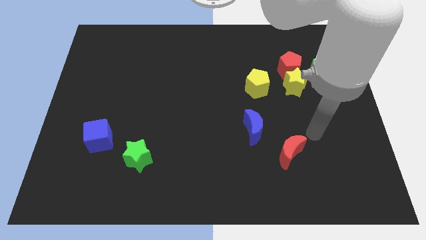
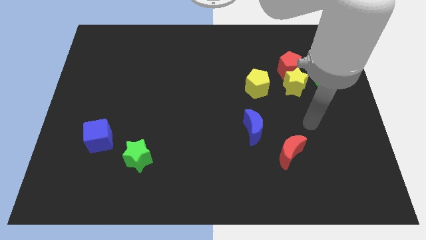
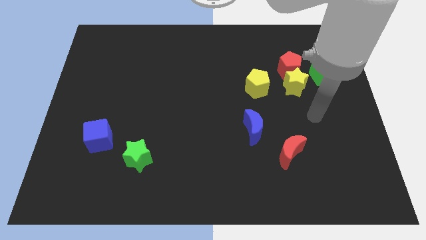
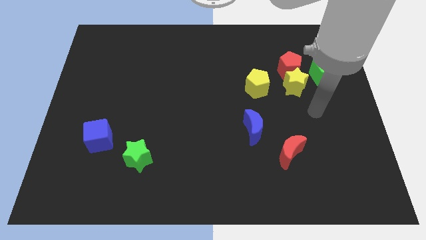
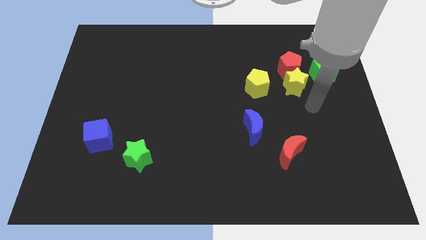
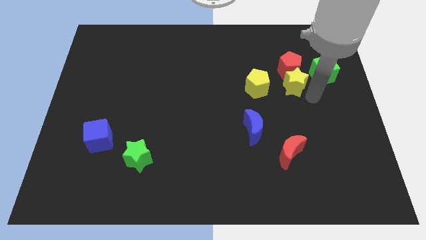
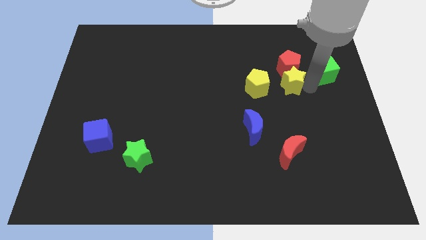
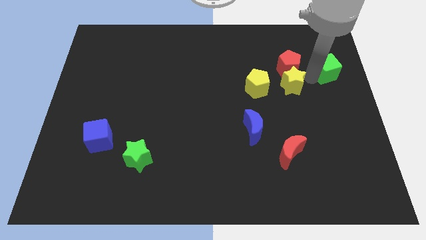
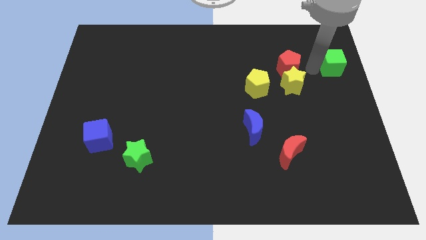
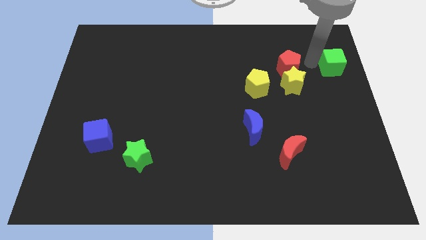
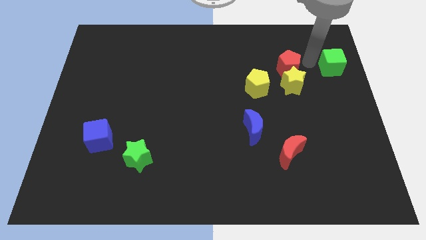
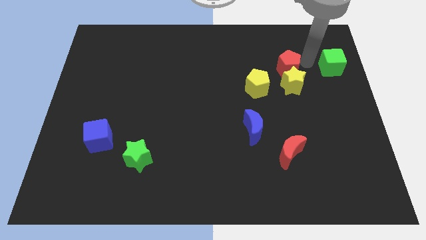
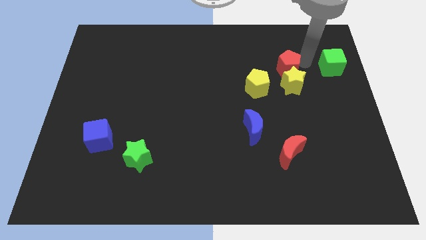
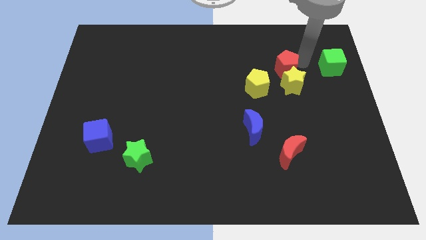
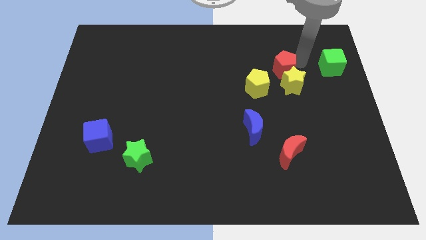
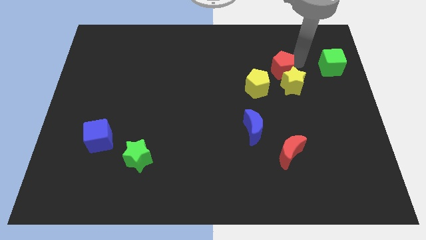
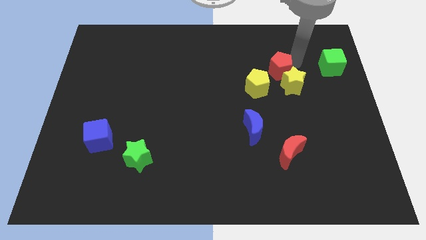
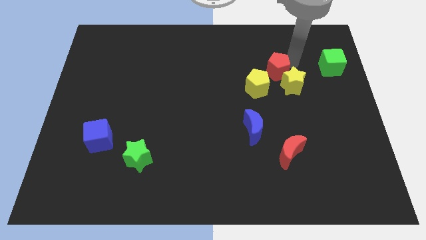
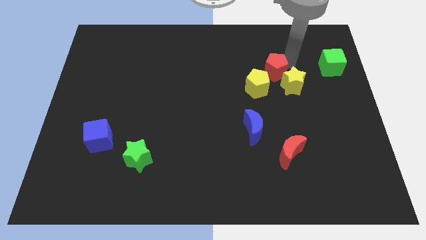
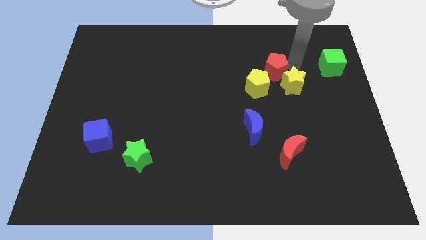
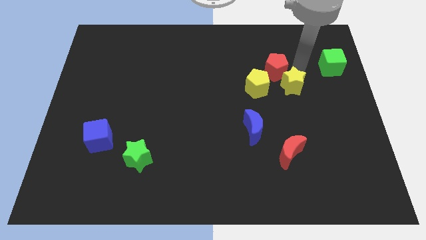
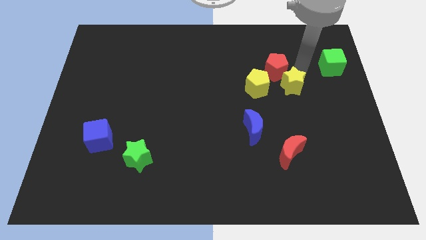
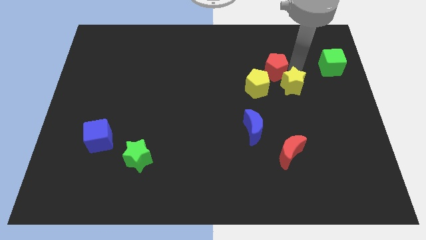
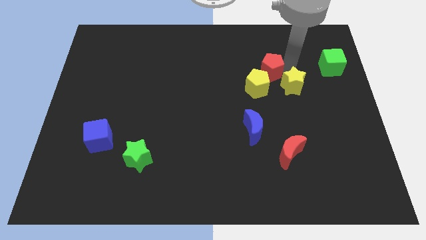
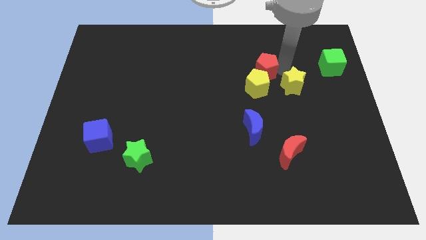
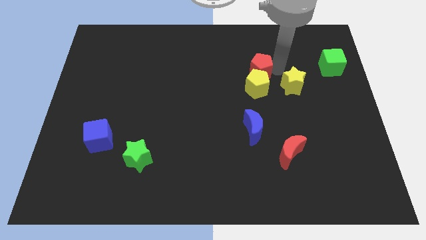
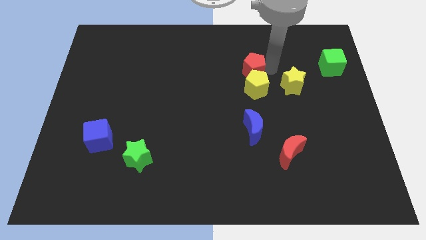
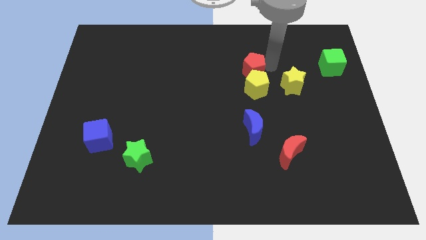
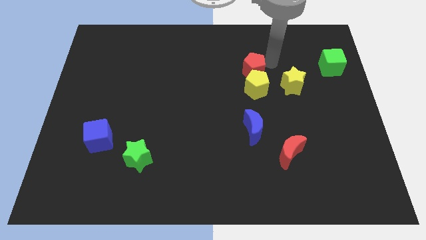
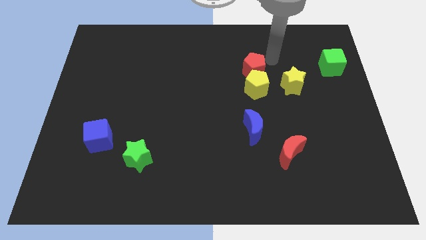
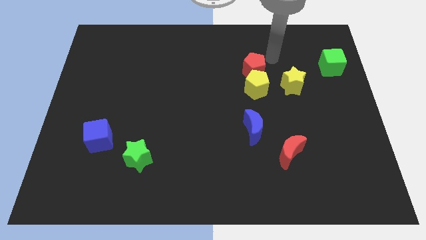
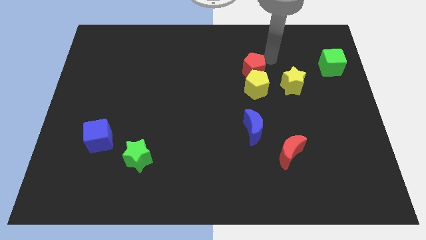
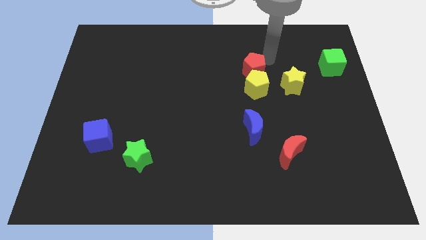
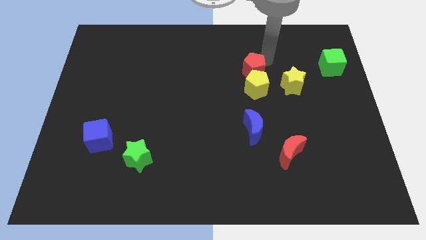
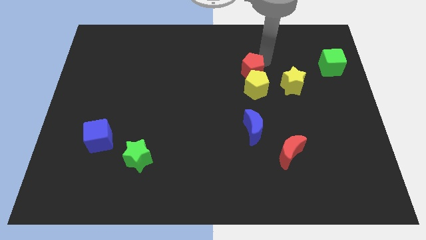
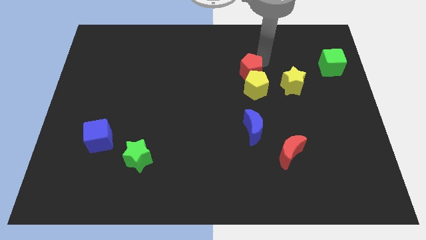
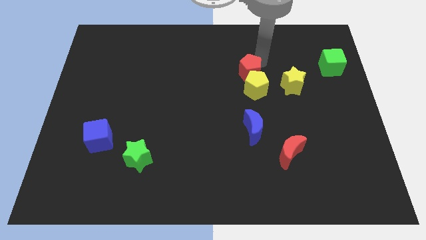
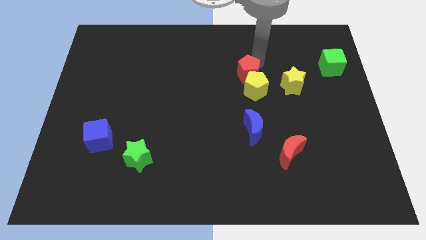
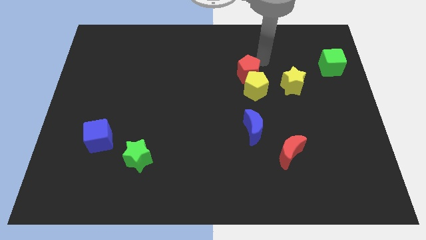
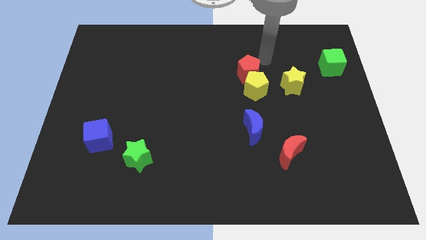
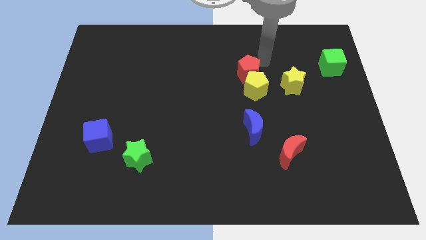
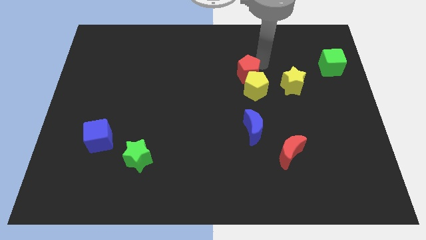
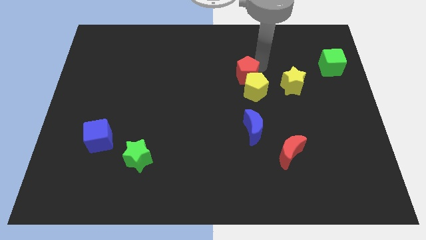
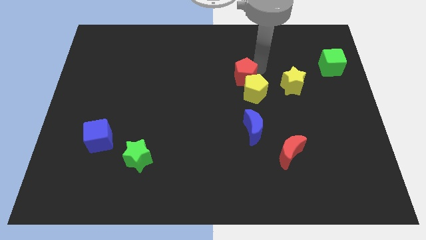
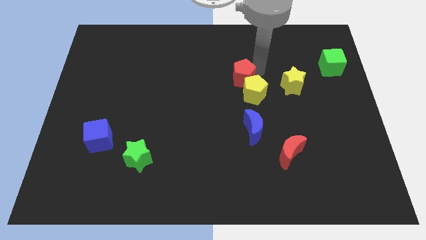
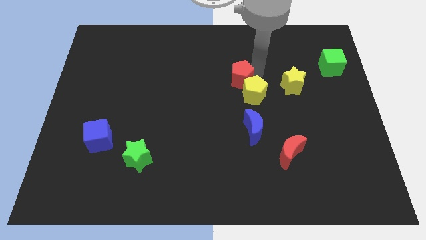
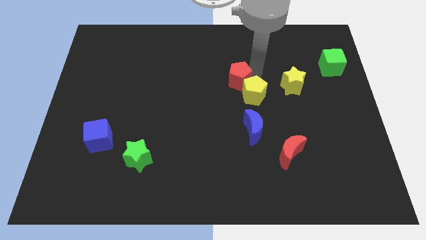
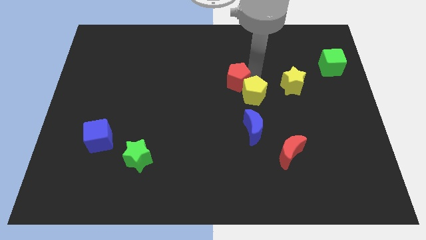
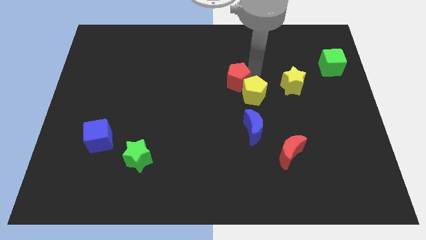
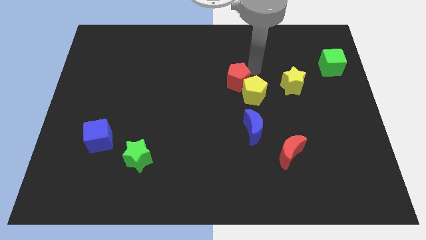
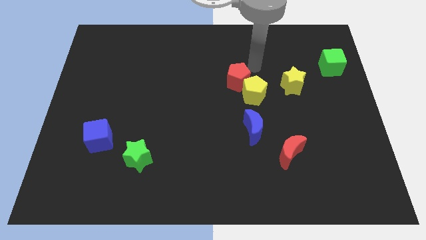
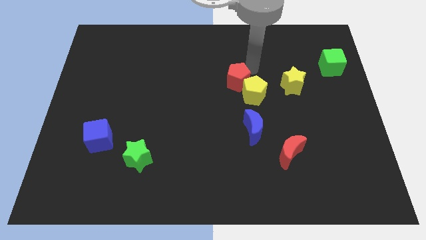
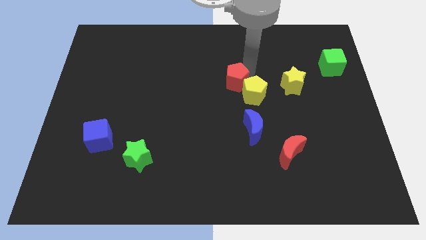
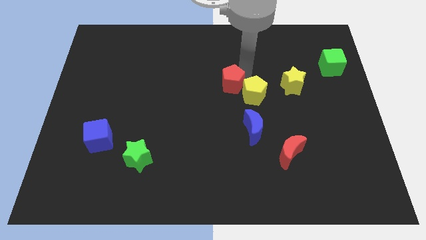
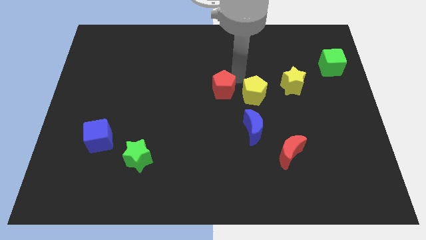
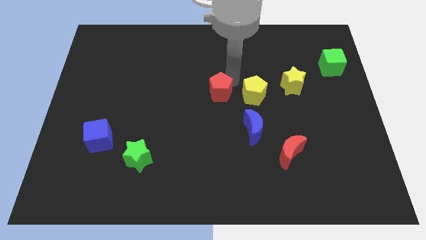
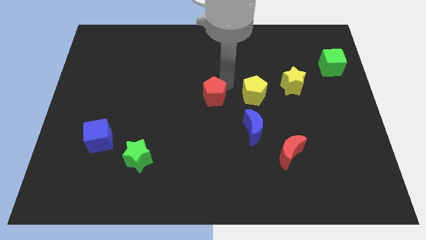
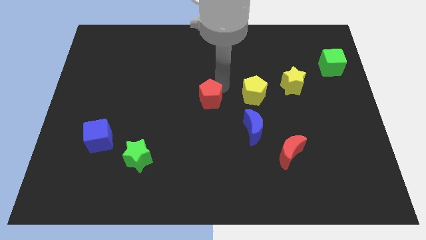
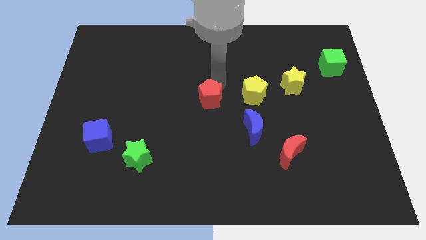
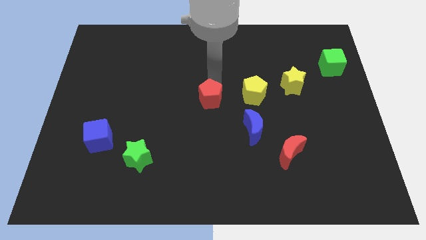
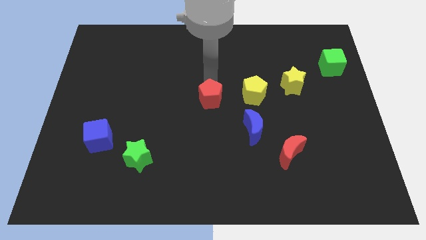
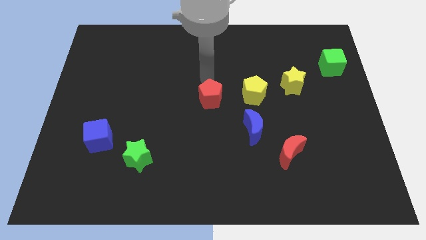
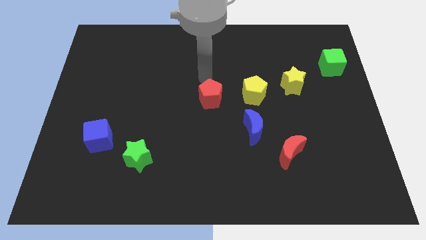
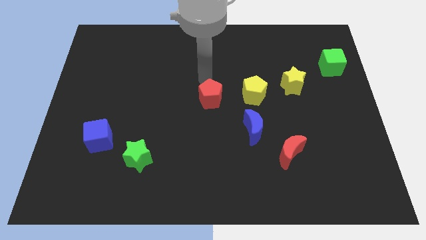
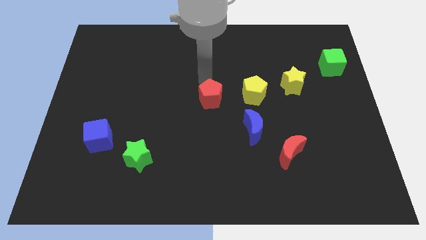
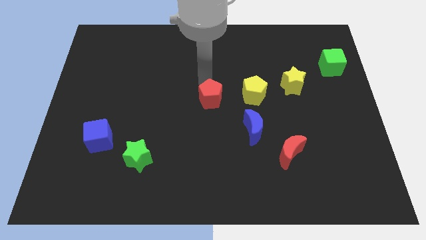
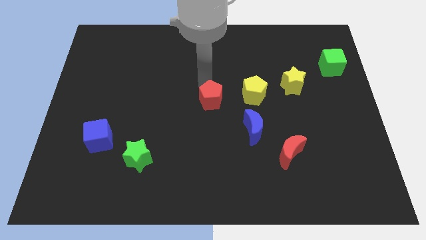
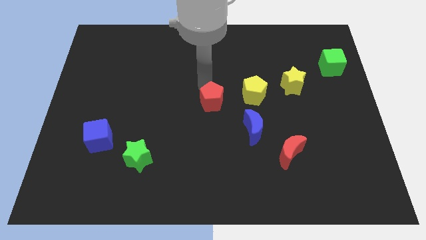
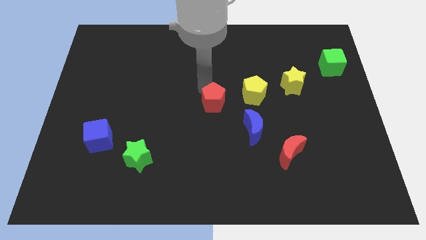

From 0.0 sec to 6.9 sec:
move the red pentagon downwards and then left

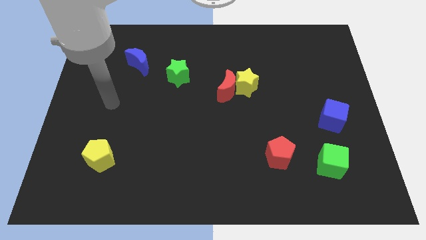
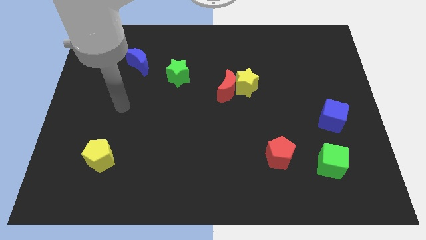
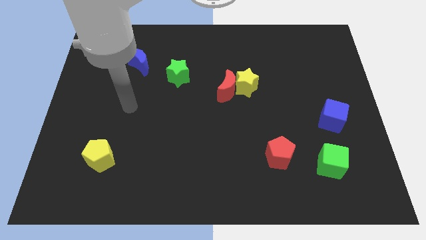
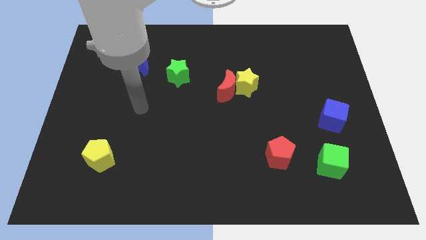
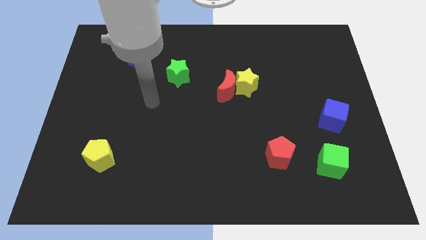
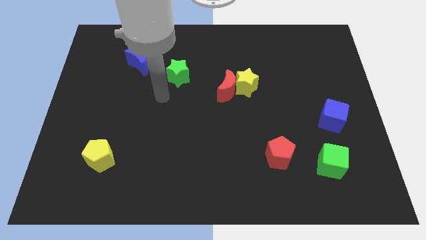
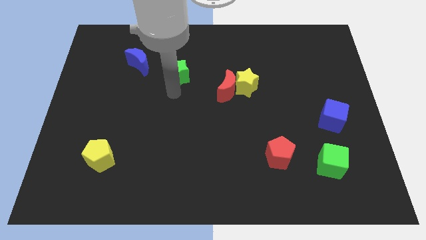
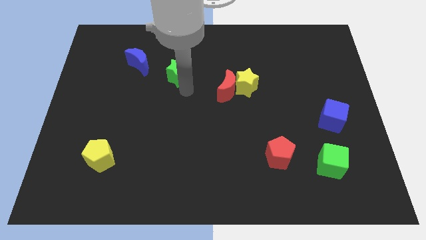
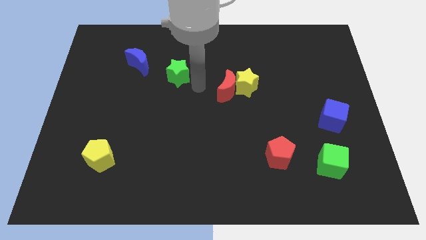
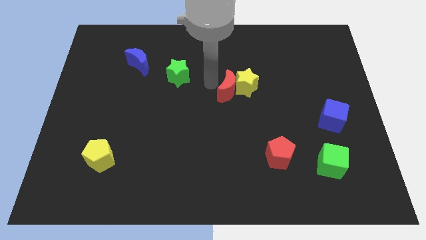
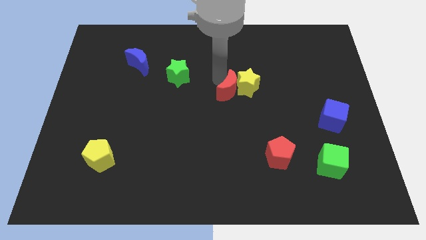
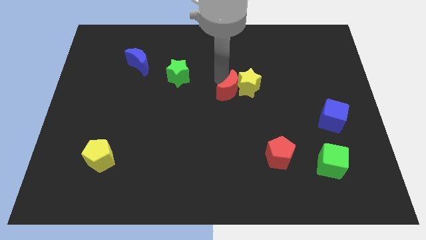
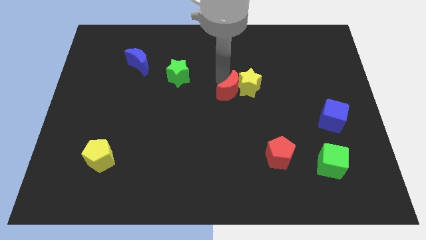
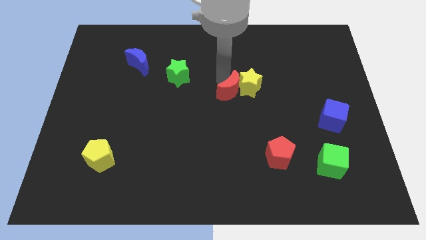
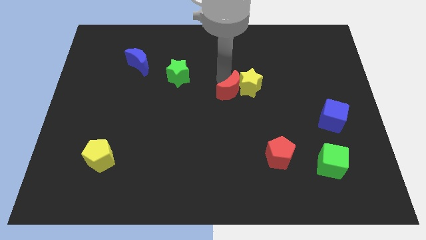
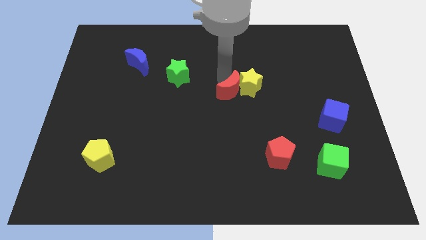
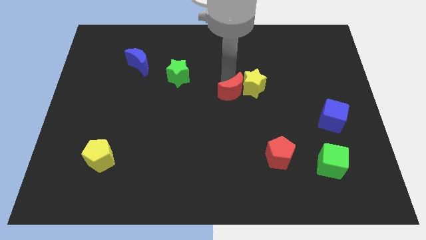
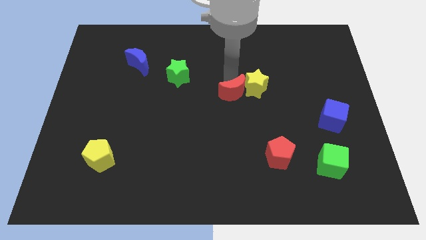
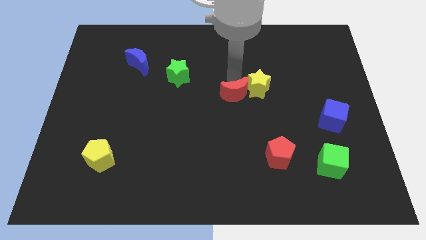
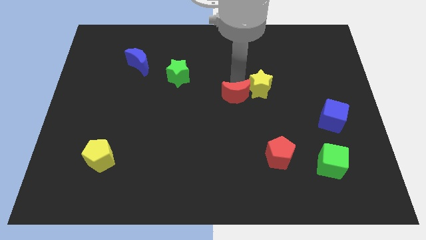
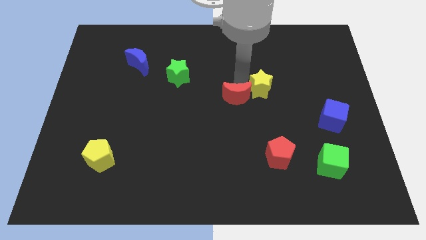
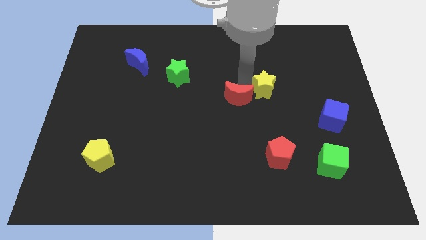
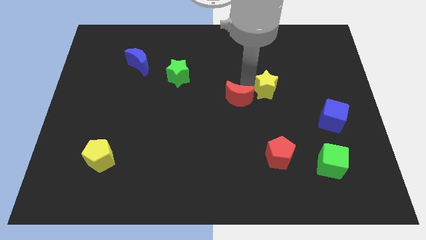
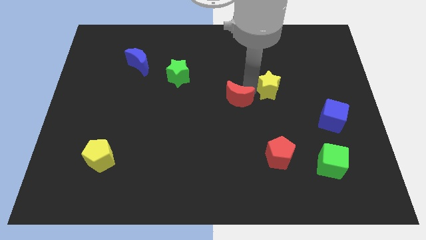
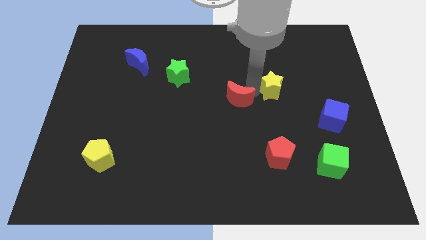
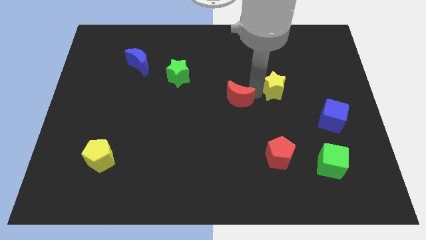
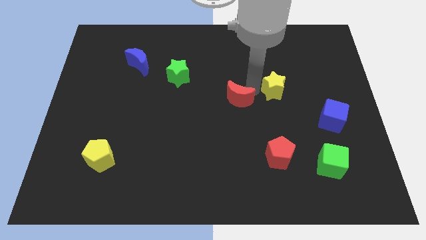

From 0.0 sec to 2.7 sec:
slide the yellow star right somewhat
